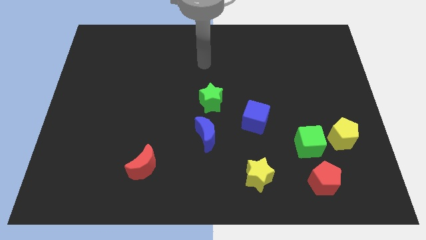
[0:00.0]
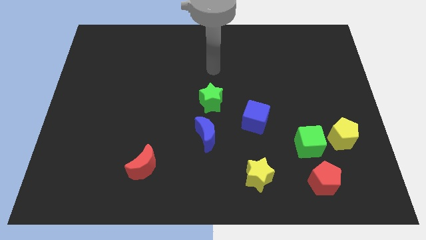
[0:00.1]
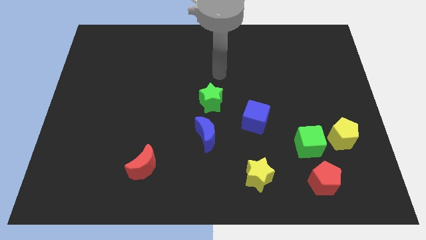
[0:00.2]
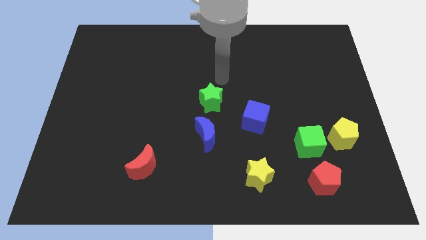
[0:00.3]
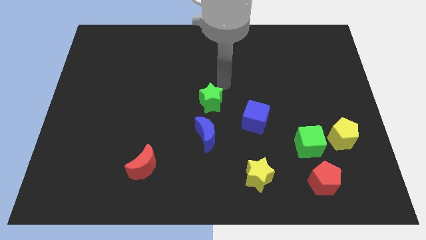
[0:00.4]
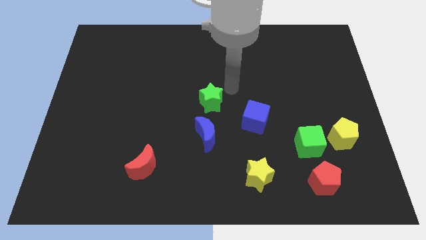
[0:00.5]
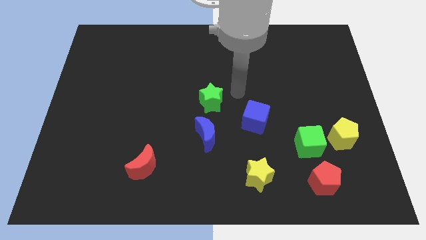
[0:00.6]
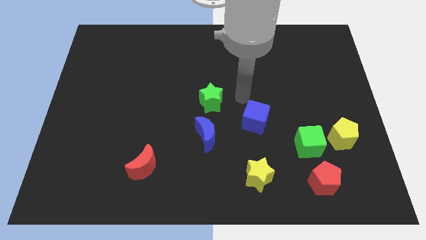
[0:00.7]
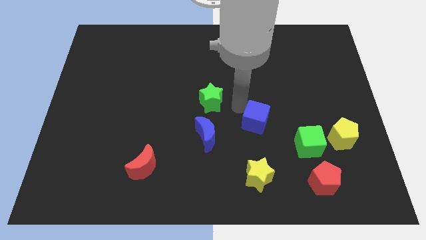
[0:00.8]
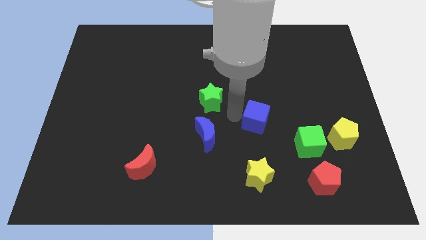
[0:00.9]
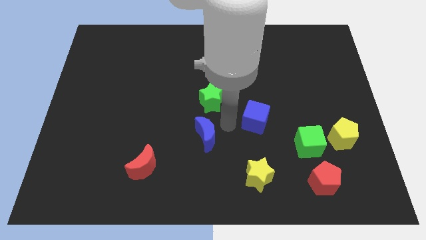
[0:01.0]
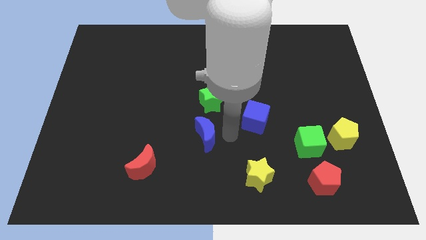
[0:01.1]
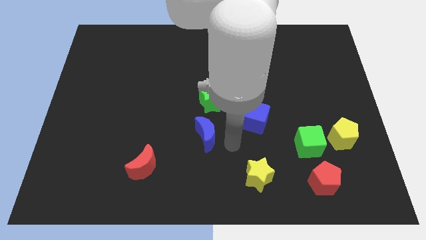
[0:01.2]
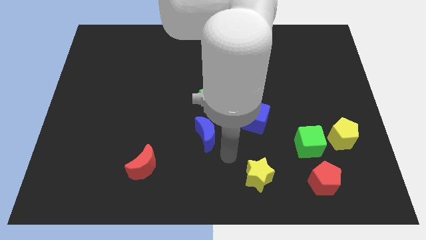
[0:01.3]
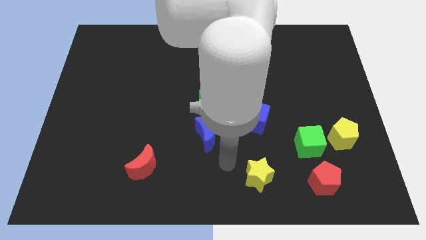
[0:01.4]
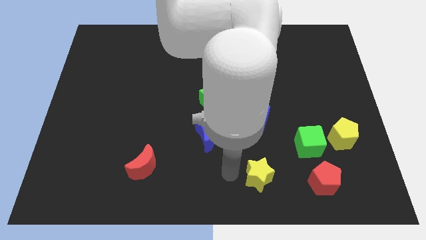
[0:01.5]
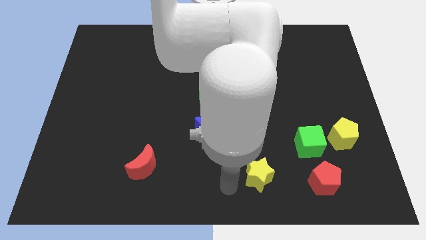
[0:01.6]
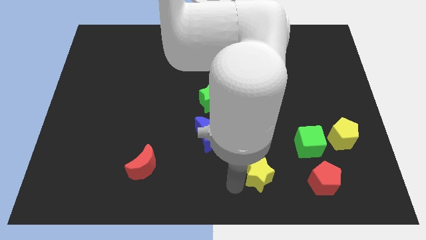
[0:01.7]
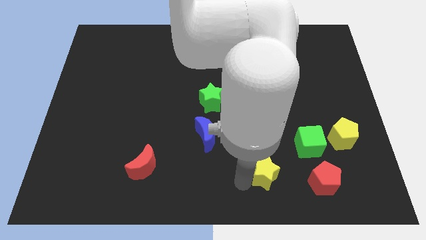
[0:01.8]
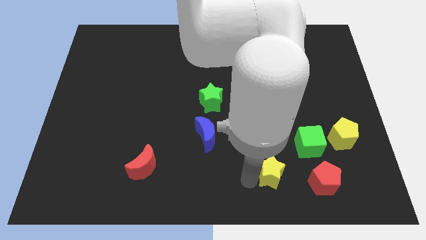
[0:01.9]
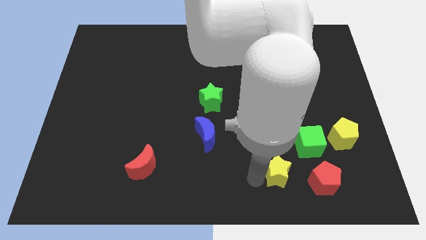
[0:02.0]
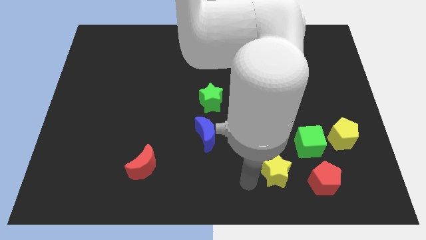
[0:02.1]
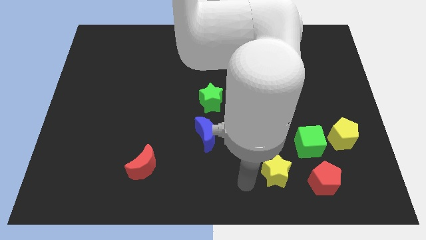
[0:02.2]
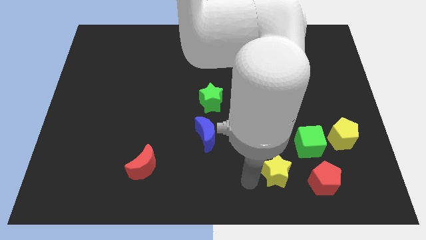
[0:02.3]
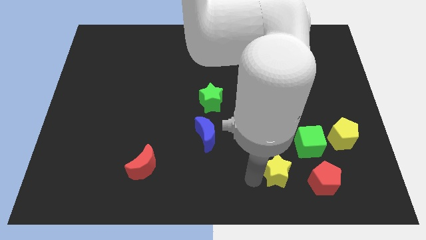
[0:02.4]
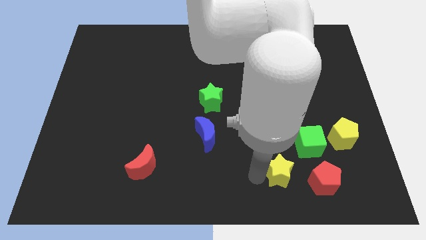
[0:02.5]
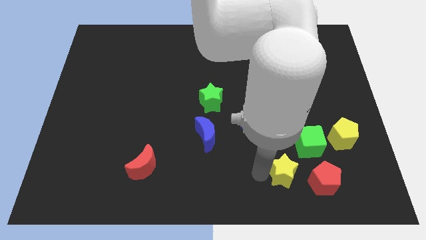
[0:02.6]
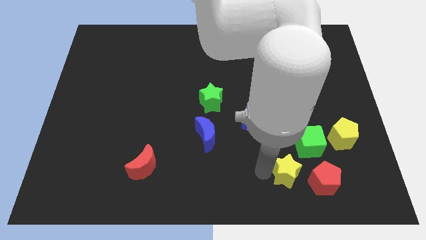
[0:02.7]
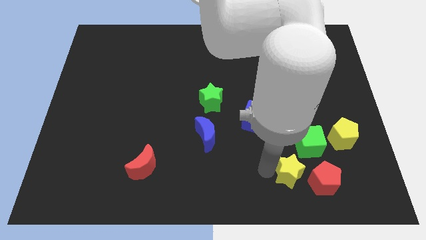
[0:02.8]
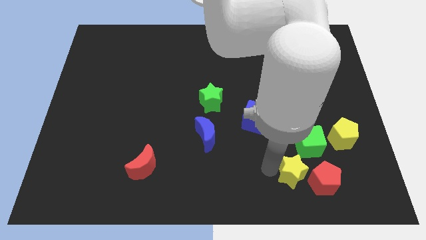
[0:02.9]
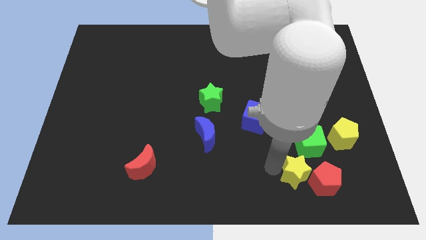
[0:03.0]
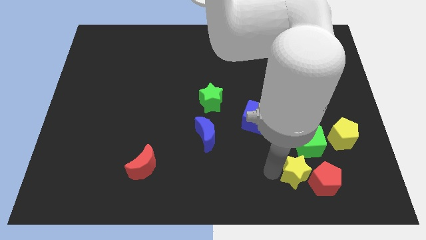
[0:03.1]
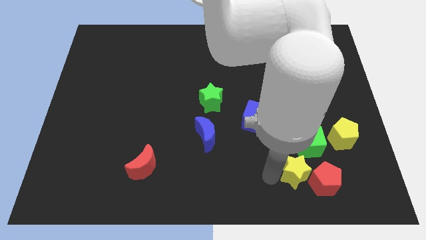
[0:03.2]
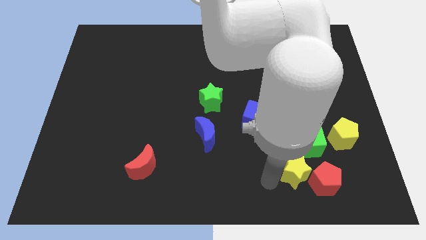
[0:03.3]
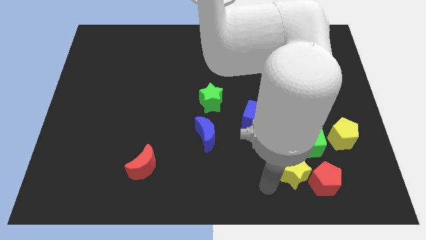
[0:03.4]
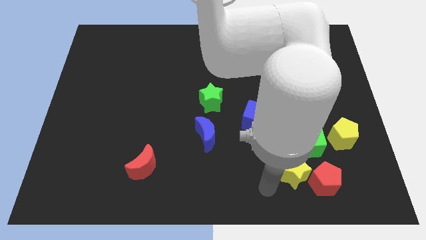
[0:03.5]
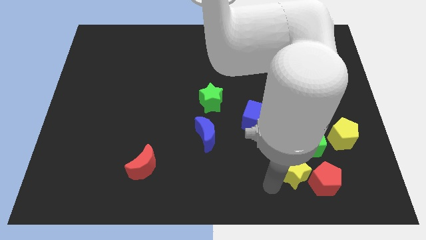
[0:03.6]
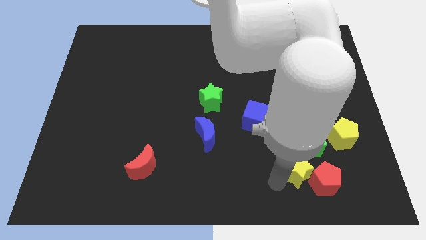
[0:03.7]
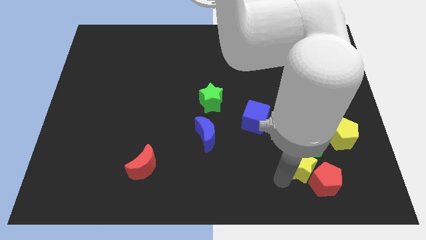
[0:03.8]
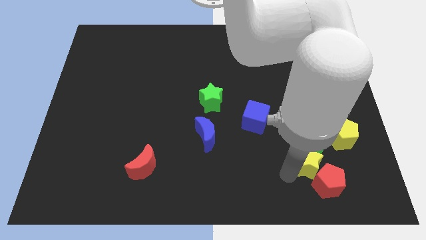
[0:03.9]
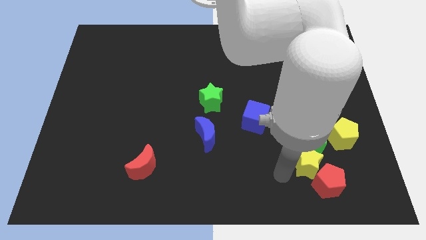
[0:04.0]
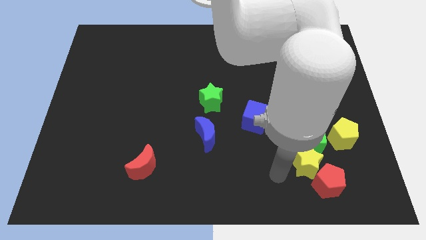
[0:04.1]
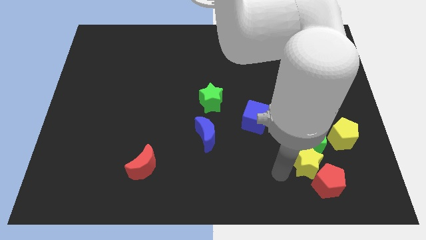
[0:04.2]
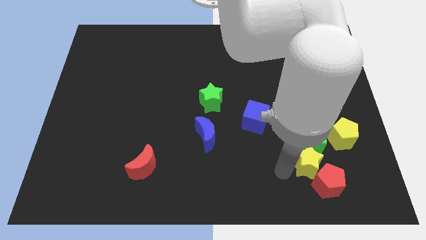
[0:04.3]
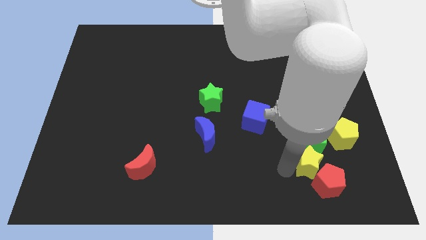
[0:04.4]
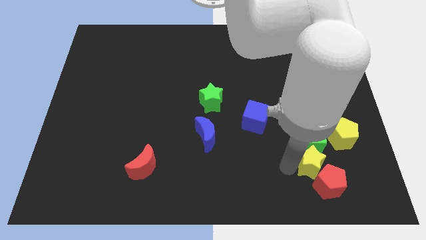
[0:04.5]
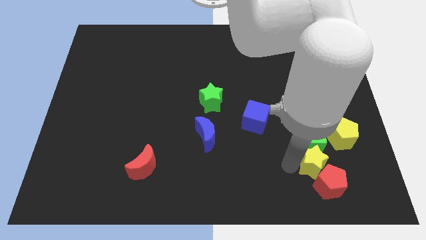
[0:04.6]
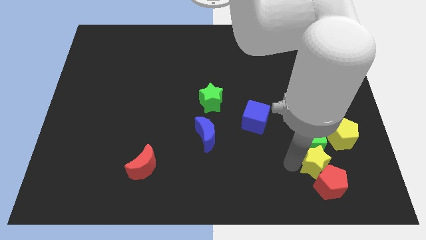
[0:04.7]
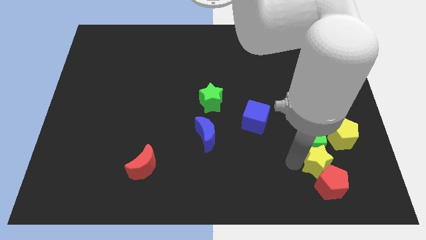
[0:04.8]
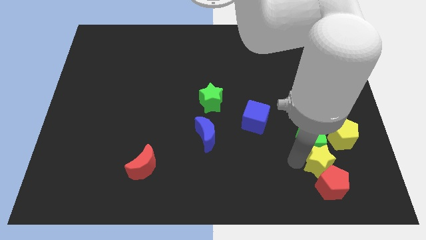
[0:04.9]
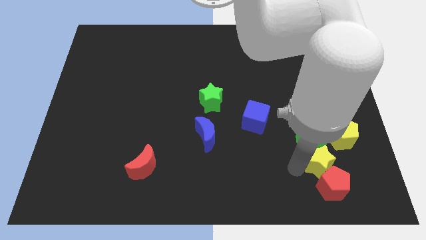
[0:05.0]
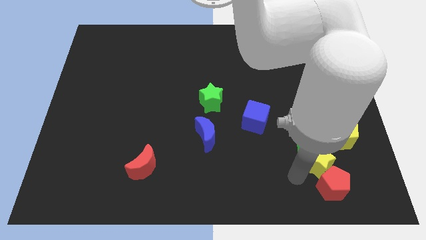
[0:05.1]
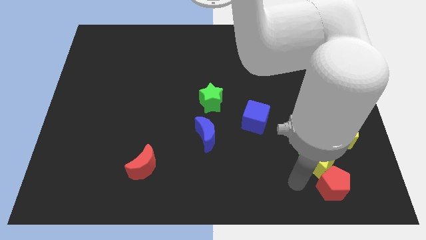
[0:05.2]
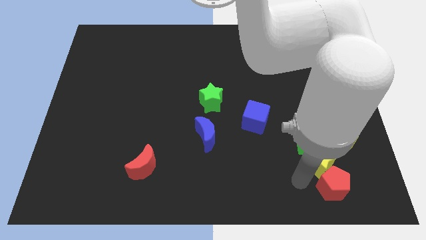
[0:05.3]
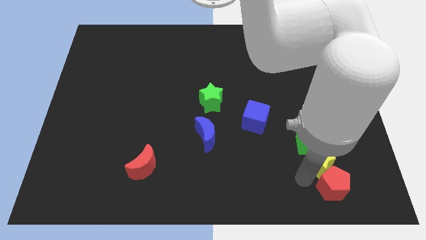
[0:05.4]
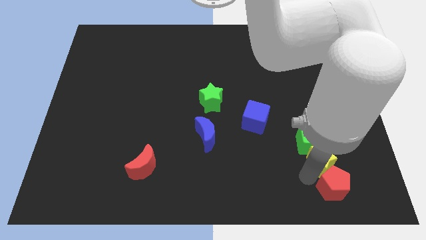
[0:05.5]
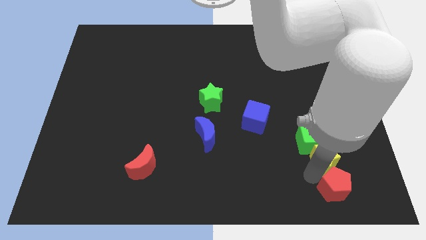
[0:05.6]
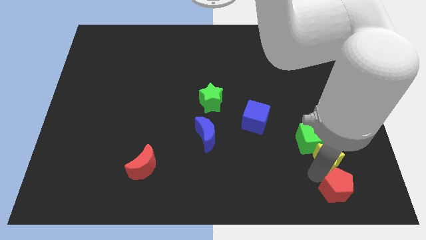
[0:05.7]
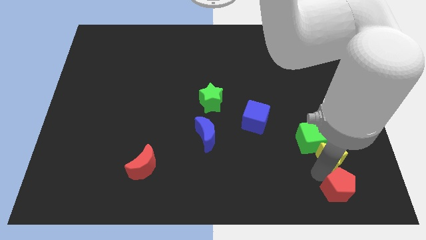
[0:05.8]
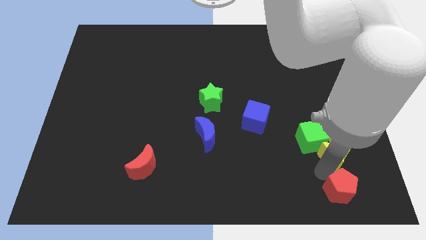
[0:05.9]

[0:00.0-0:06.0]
push the yellow star towards the yellow pentagon

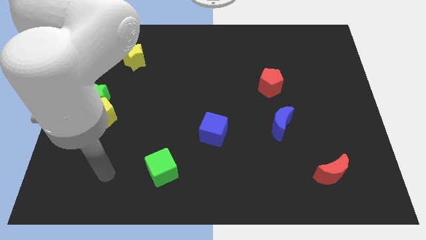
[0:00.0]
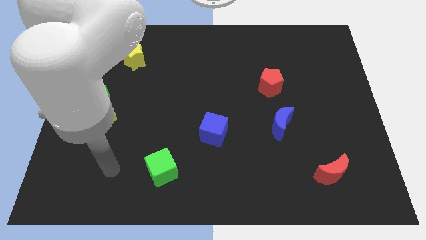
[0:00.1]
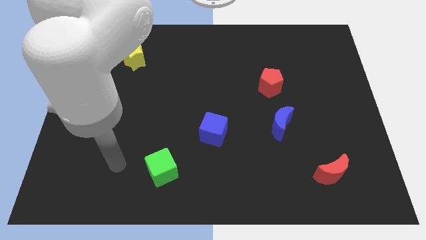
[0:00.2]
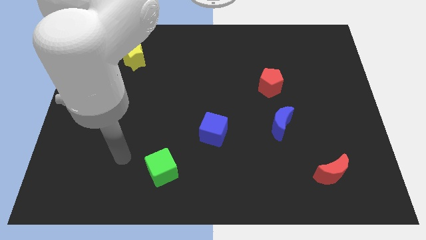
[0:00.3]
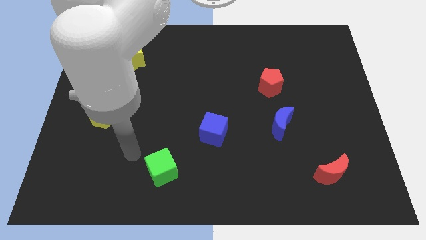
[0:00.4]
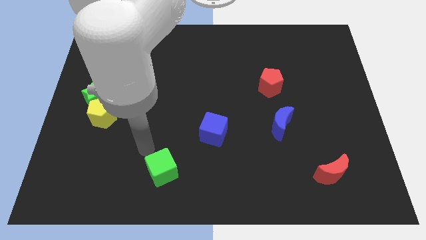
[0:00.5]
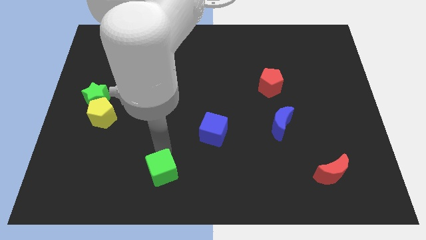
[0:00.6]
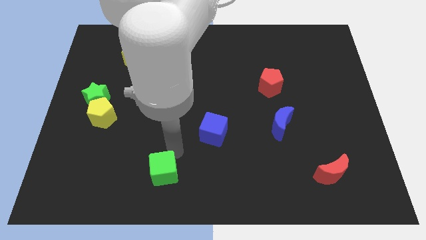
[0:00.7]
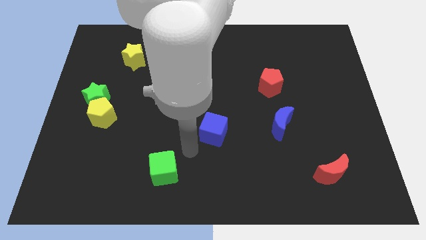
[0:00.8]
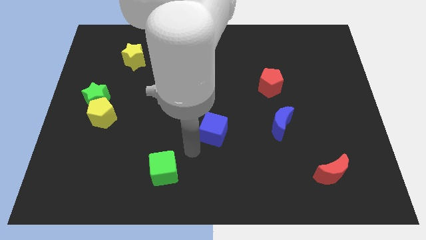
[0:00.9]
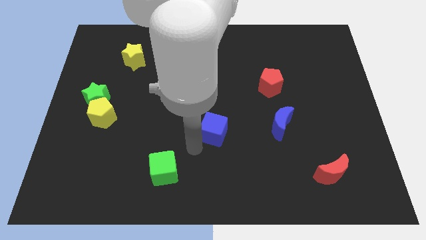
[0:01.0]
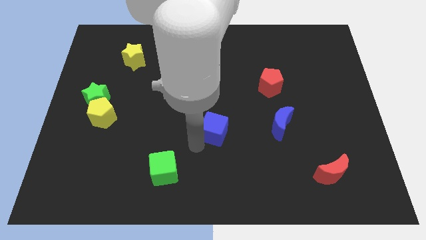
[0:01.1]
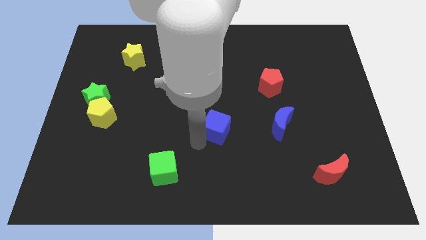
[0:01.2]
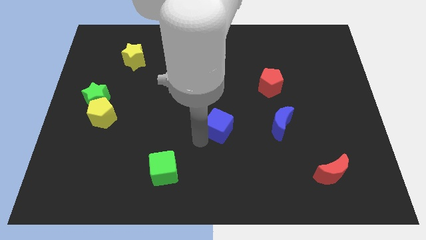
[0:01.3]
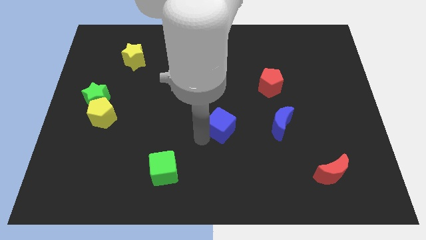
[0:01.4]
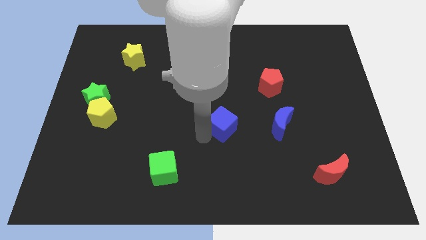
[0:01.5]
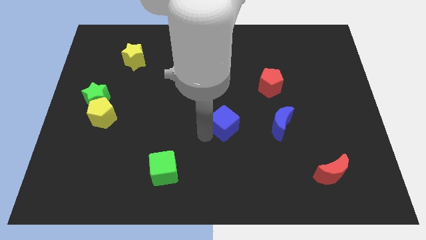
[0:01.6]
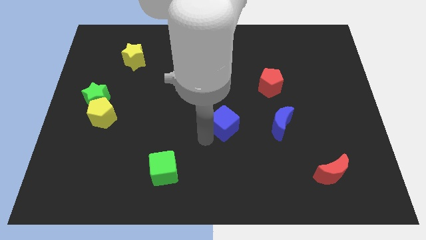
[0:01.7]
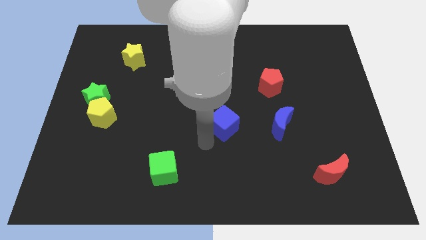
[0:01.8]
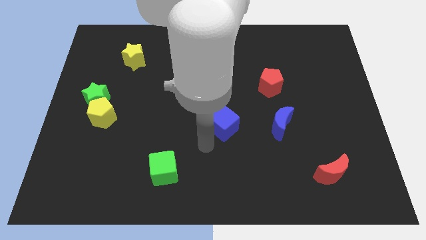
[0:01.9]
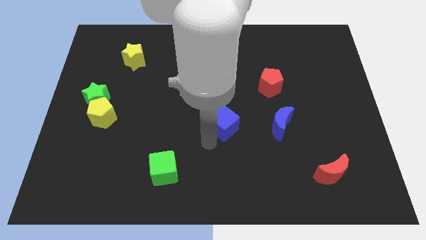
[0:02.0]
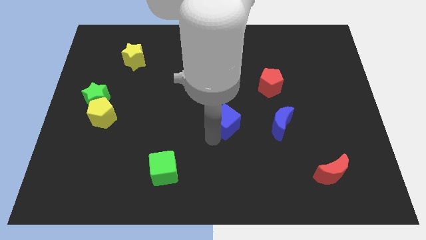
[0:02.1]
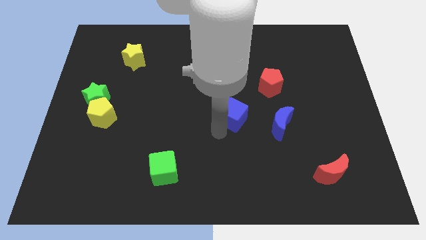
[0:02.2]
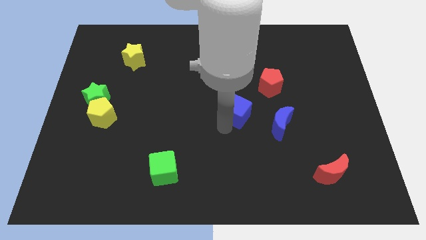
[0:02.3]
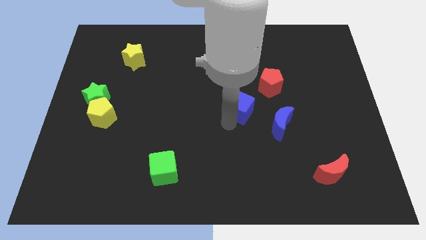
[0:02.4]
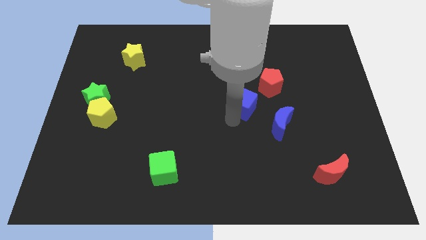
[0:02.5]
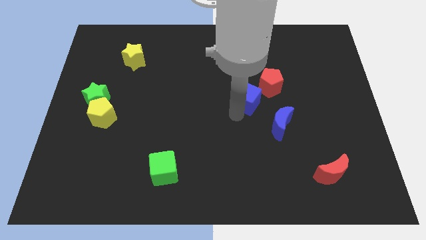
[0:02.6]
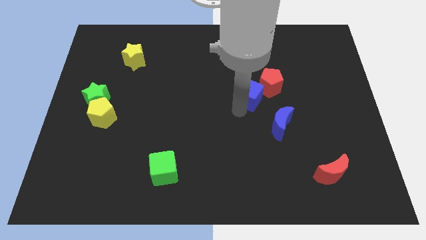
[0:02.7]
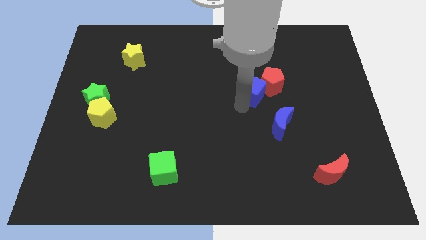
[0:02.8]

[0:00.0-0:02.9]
slide the blue cube towards the red pentagon
